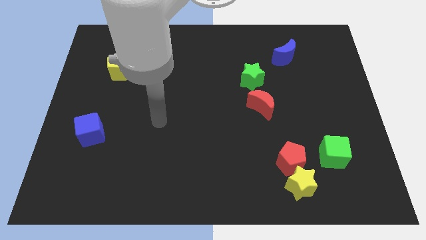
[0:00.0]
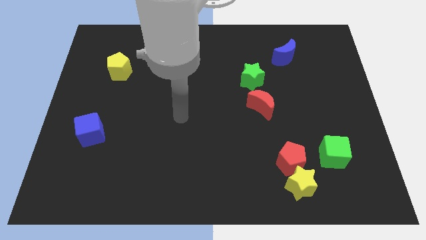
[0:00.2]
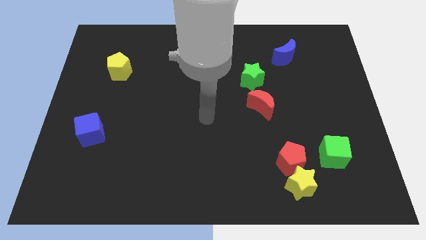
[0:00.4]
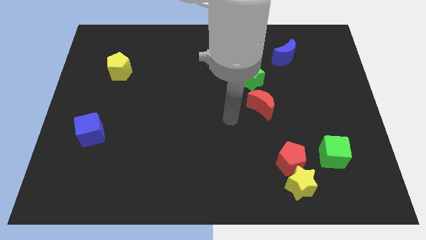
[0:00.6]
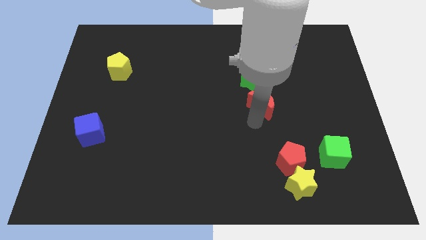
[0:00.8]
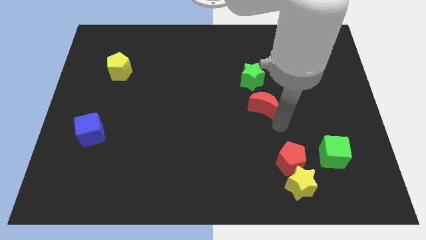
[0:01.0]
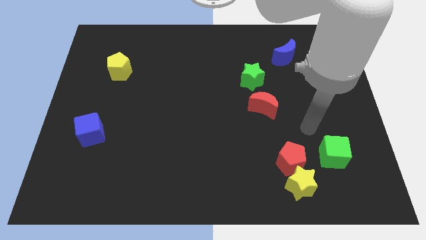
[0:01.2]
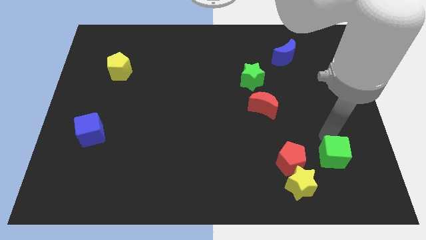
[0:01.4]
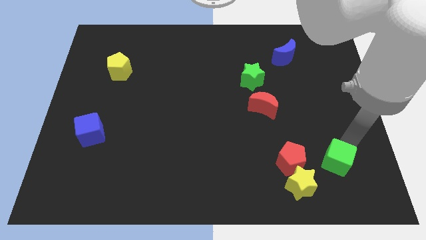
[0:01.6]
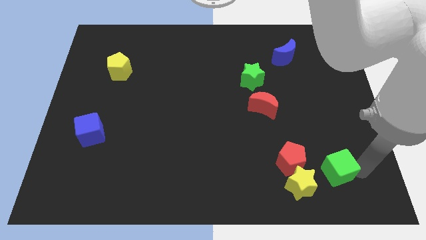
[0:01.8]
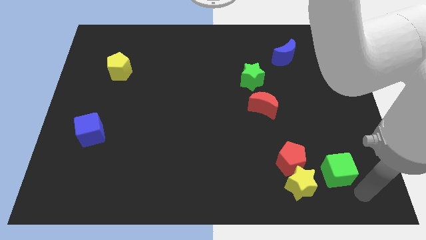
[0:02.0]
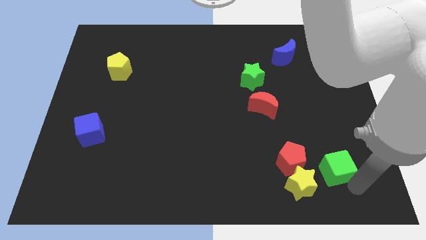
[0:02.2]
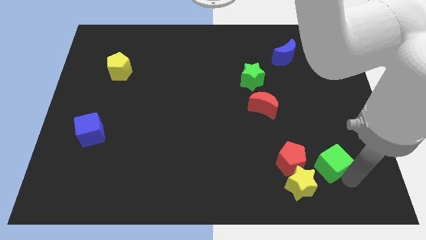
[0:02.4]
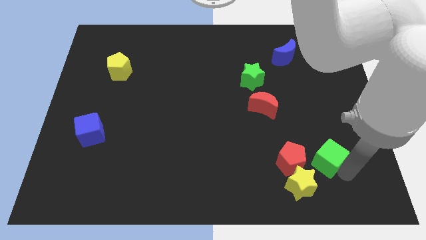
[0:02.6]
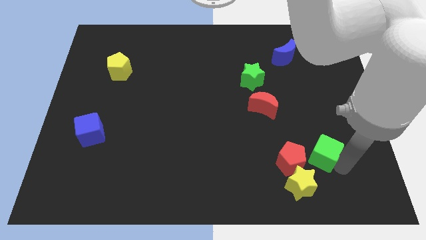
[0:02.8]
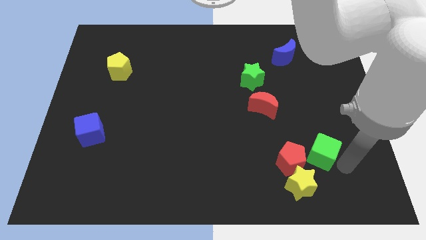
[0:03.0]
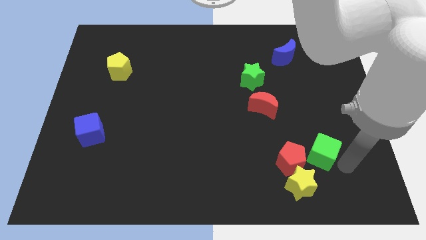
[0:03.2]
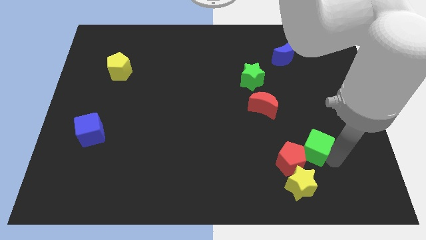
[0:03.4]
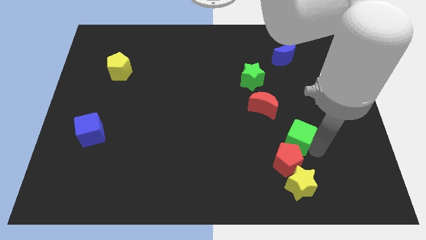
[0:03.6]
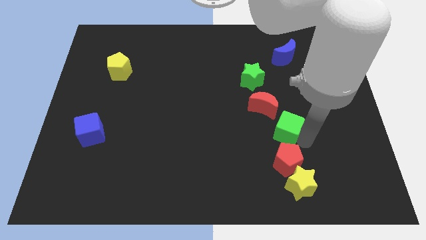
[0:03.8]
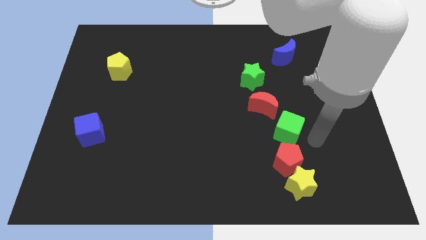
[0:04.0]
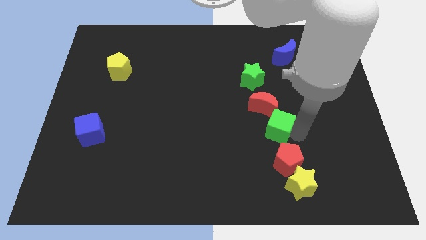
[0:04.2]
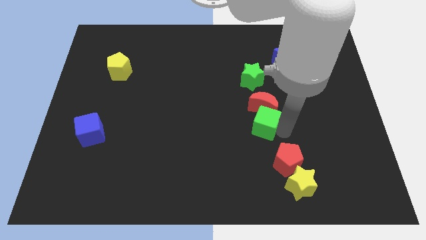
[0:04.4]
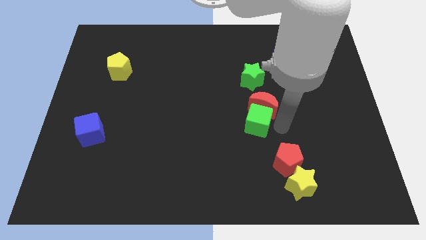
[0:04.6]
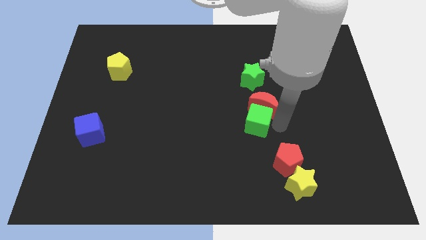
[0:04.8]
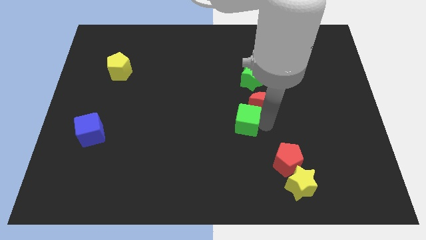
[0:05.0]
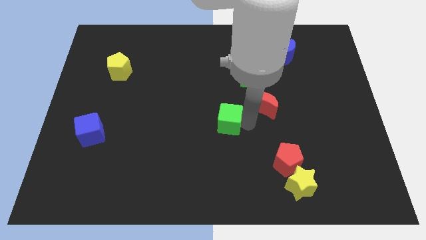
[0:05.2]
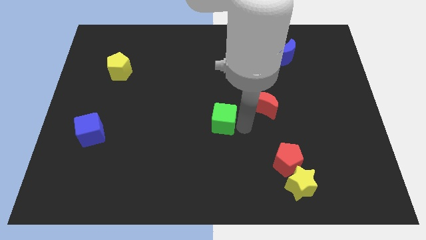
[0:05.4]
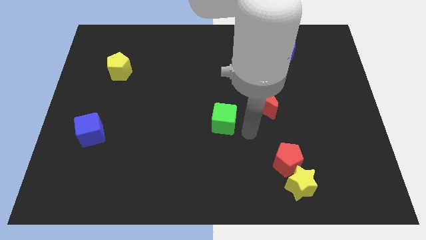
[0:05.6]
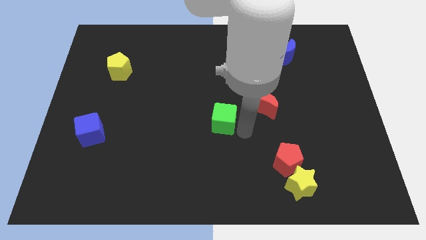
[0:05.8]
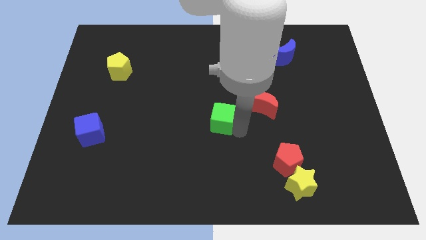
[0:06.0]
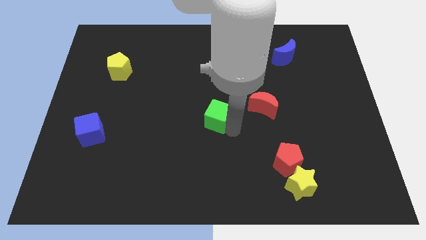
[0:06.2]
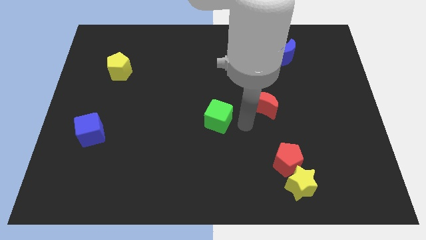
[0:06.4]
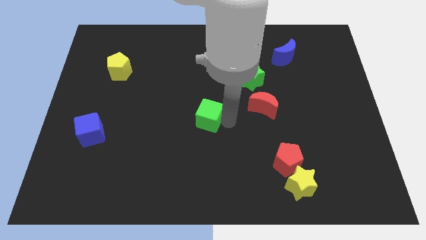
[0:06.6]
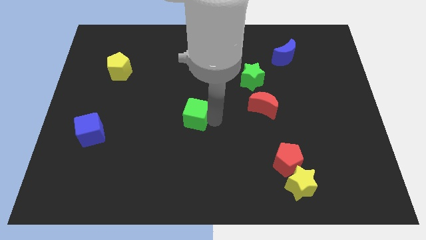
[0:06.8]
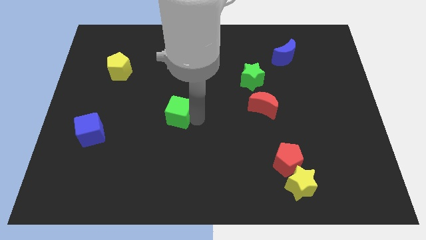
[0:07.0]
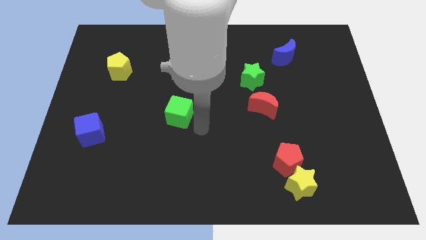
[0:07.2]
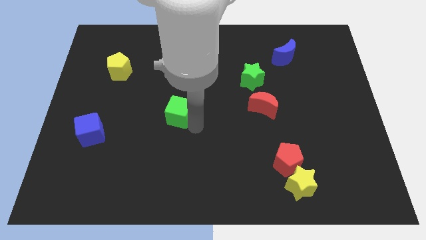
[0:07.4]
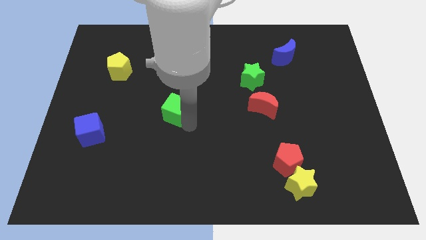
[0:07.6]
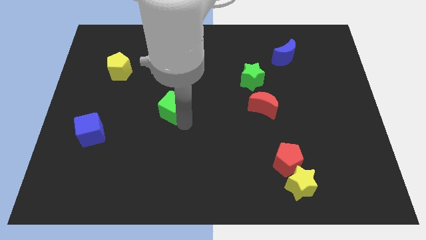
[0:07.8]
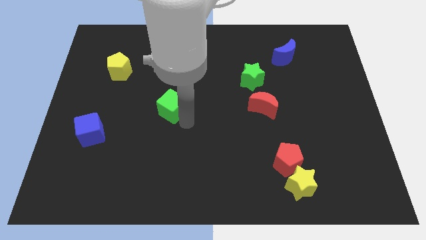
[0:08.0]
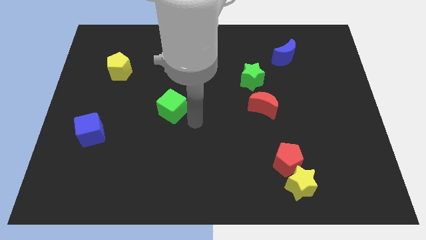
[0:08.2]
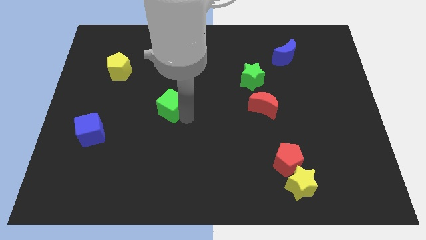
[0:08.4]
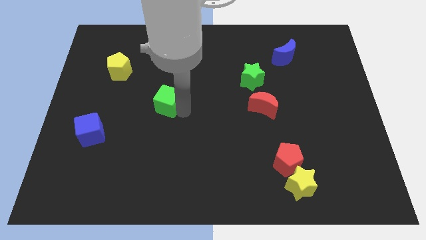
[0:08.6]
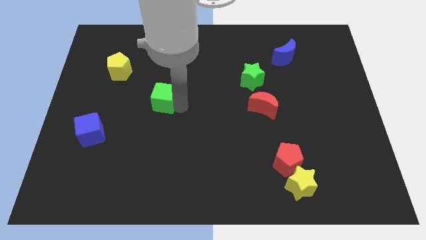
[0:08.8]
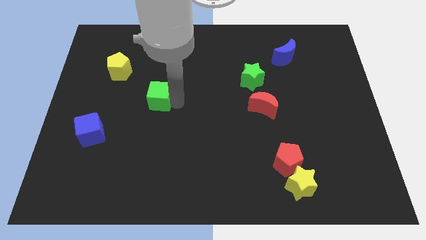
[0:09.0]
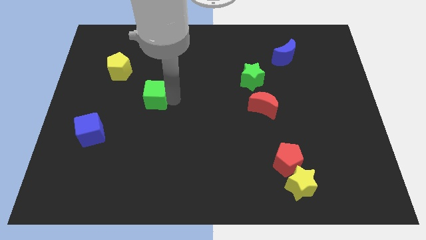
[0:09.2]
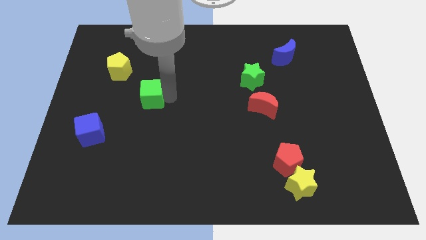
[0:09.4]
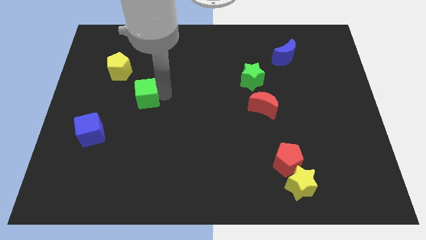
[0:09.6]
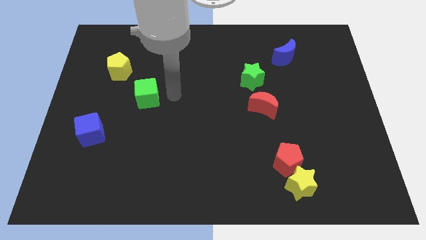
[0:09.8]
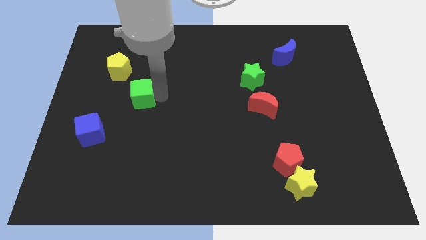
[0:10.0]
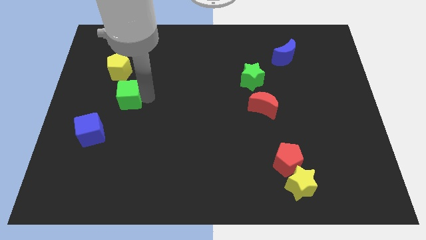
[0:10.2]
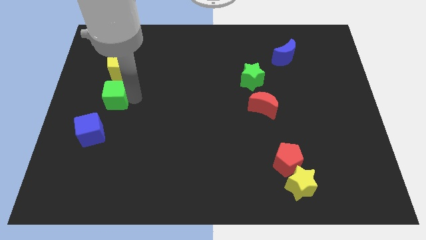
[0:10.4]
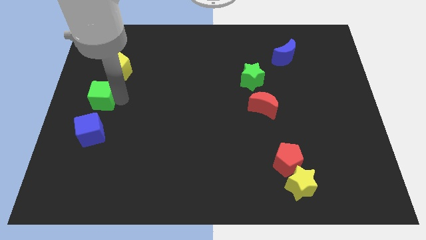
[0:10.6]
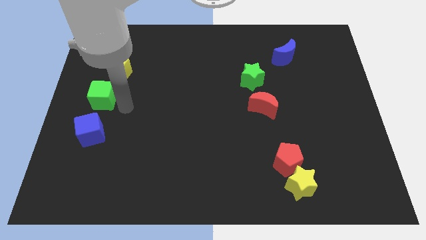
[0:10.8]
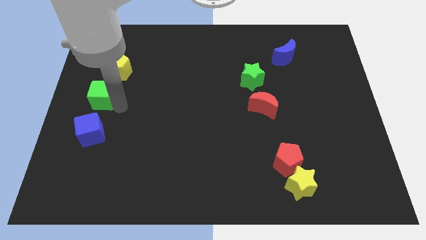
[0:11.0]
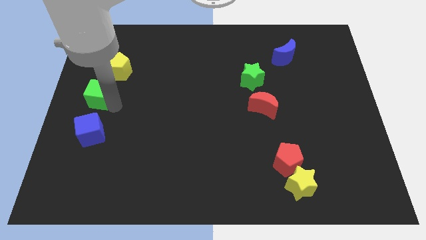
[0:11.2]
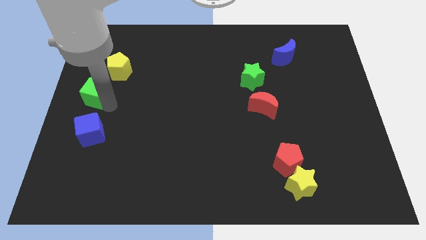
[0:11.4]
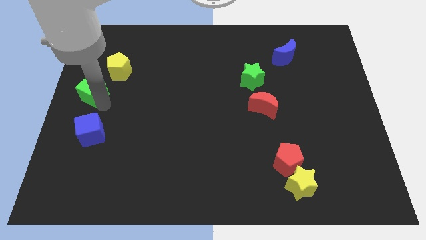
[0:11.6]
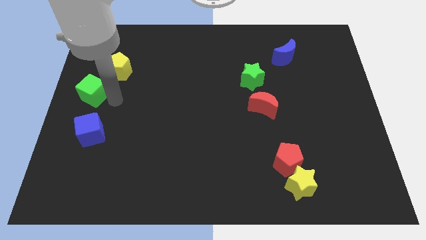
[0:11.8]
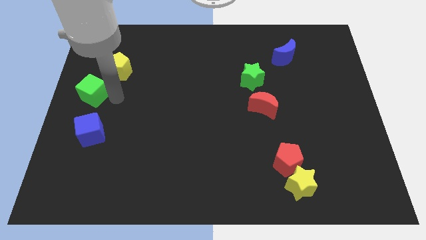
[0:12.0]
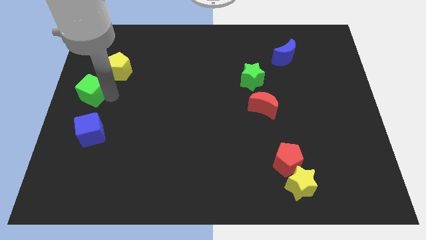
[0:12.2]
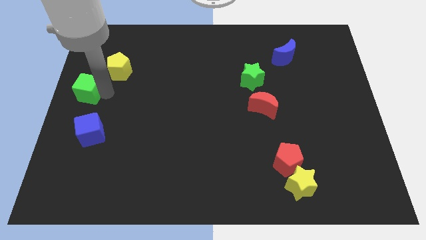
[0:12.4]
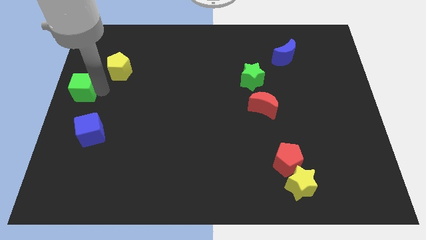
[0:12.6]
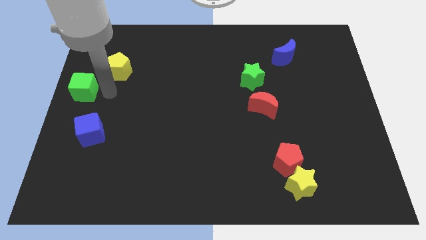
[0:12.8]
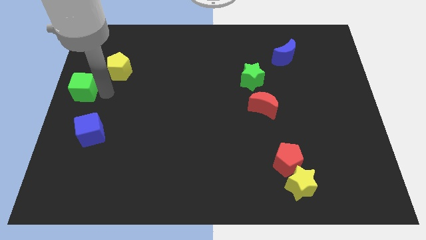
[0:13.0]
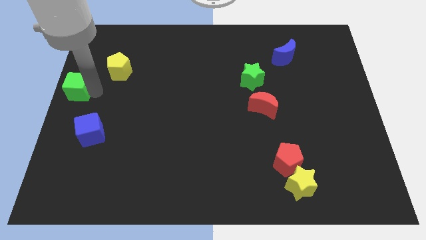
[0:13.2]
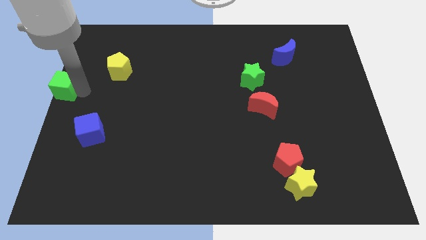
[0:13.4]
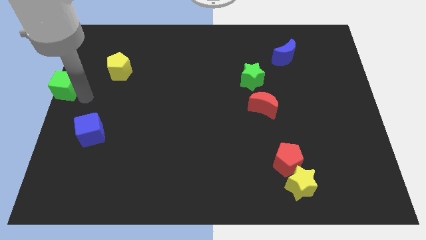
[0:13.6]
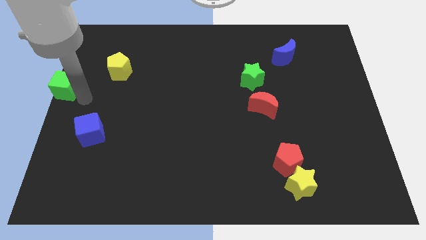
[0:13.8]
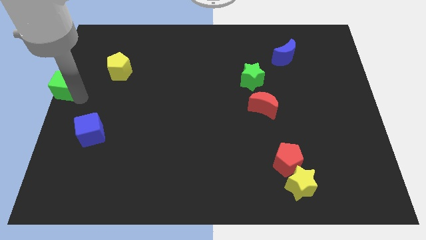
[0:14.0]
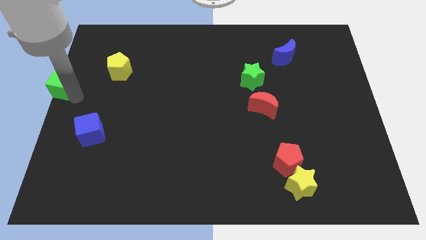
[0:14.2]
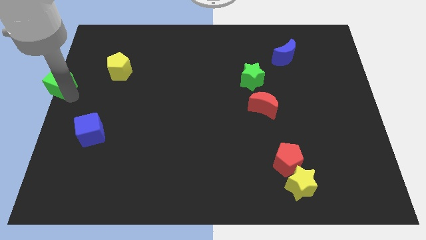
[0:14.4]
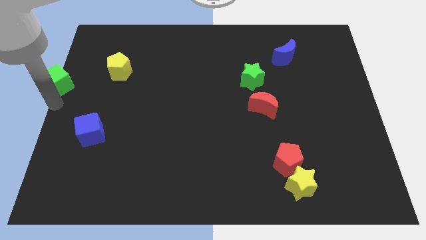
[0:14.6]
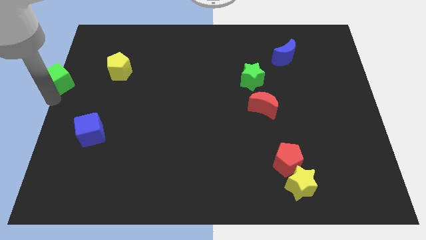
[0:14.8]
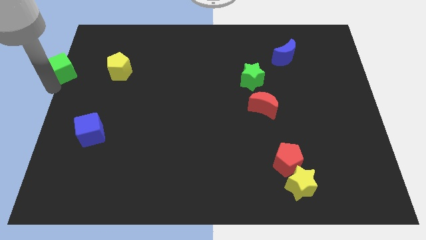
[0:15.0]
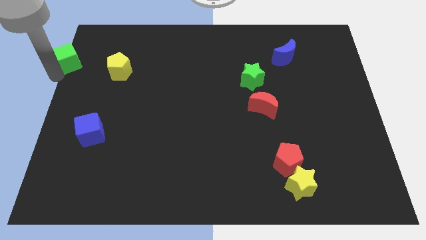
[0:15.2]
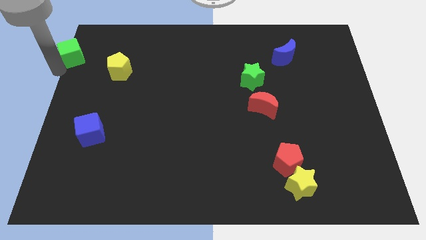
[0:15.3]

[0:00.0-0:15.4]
put the green cube to the top left corner
